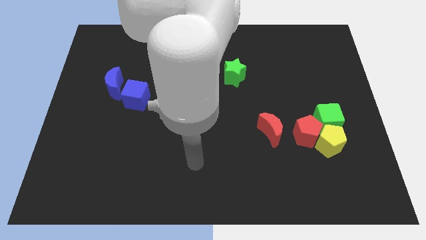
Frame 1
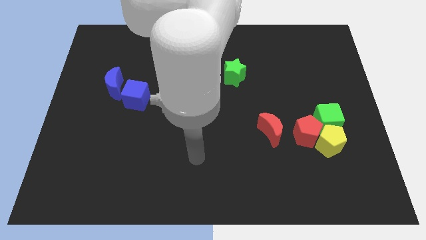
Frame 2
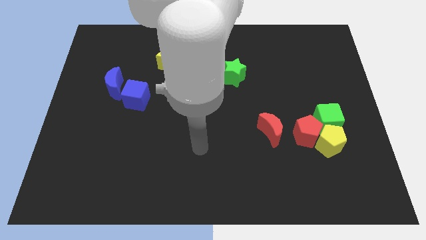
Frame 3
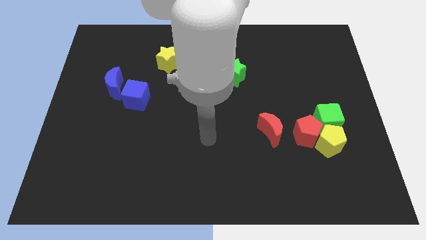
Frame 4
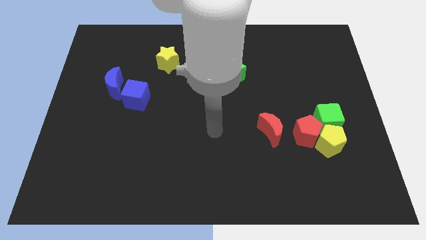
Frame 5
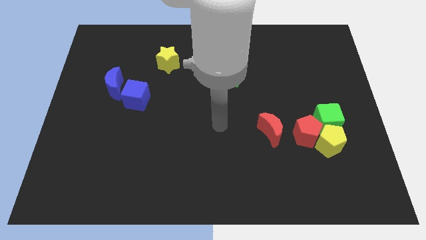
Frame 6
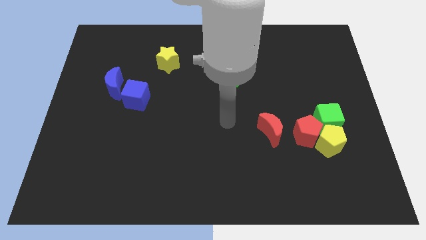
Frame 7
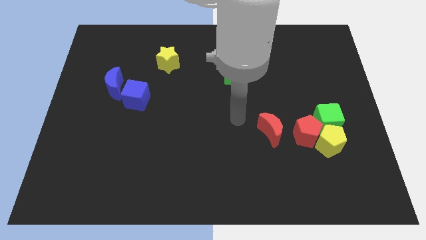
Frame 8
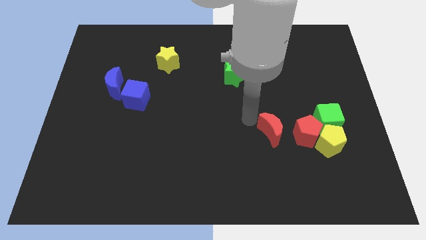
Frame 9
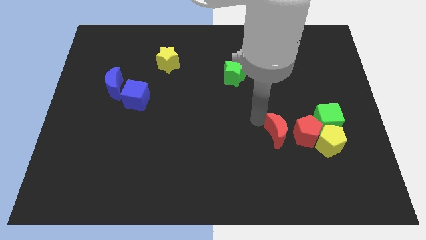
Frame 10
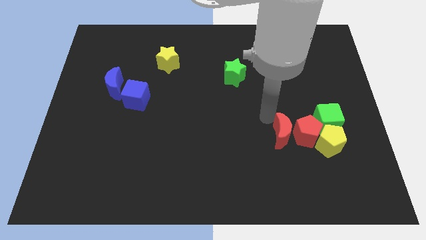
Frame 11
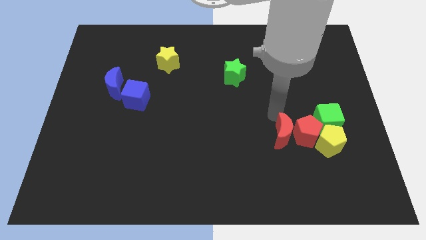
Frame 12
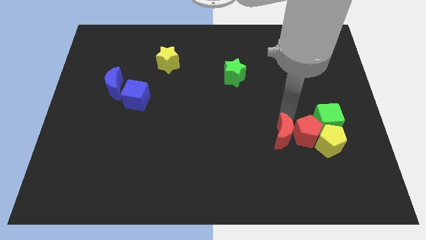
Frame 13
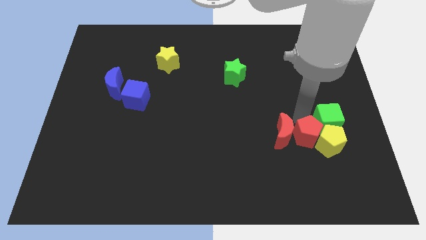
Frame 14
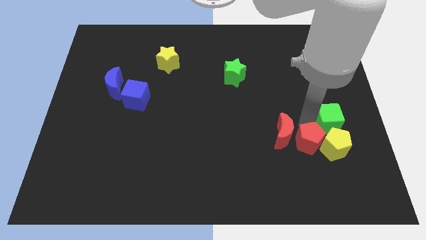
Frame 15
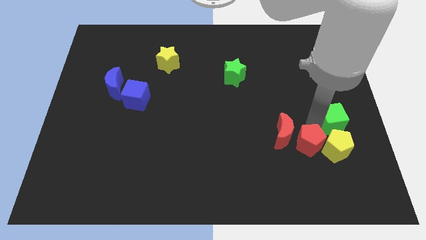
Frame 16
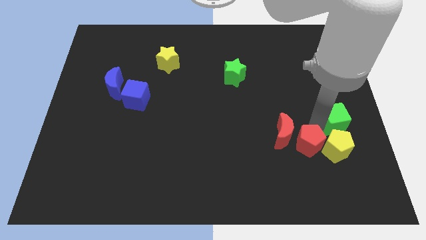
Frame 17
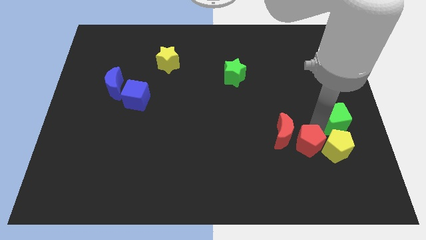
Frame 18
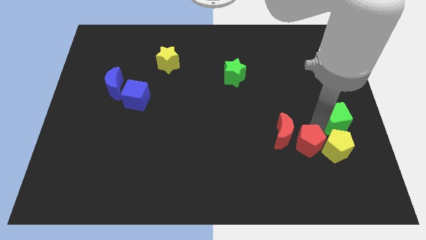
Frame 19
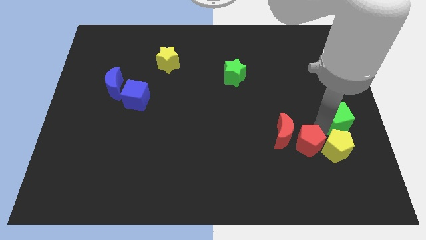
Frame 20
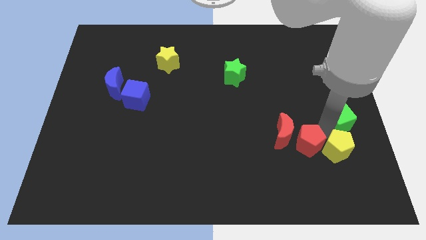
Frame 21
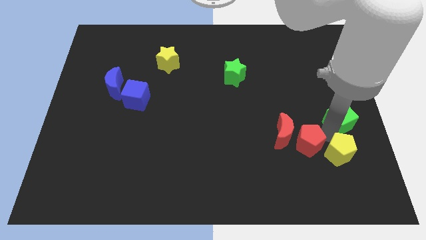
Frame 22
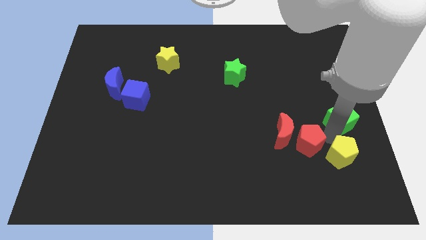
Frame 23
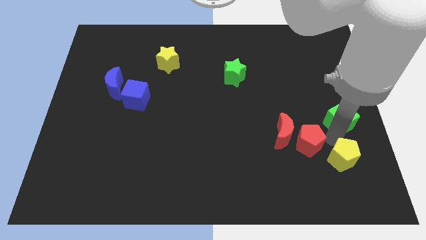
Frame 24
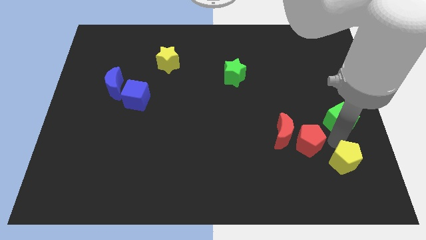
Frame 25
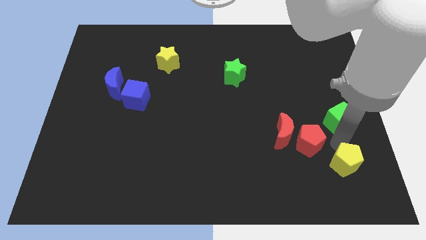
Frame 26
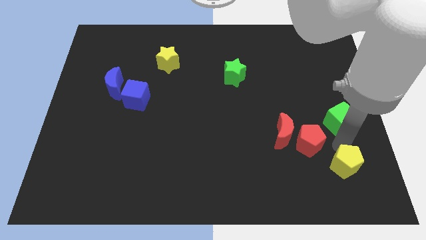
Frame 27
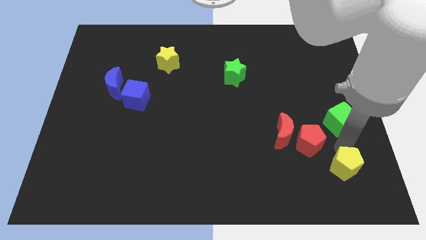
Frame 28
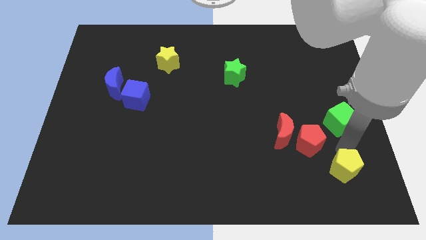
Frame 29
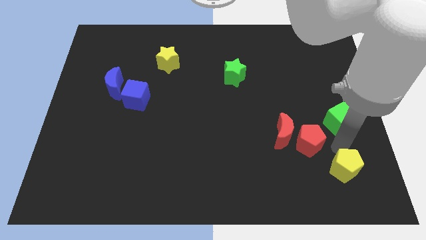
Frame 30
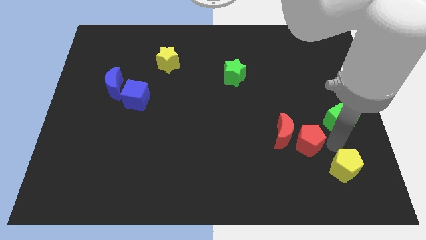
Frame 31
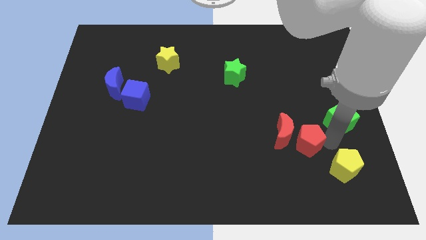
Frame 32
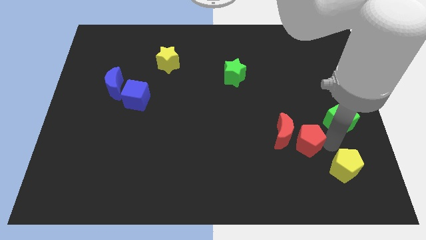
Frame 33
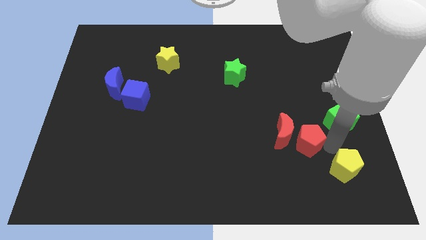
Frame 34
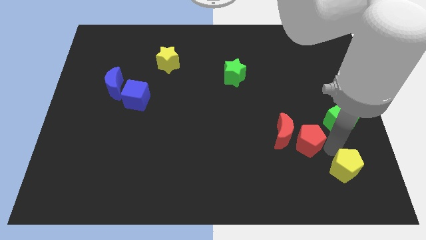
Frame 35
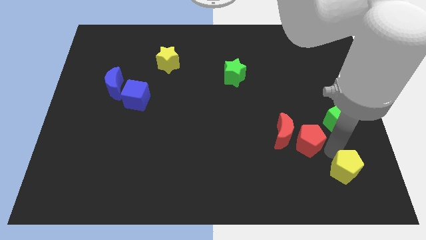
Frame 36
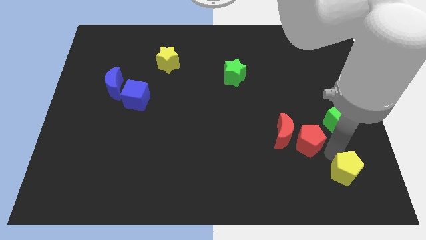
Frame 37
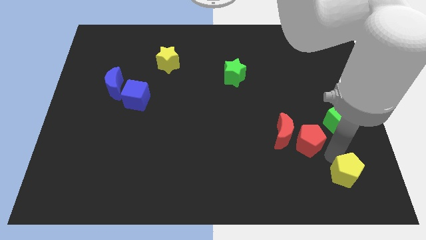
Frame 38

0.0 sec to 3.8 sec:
move the yellow pentagon away from the red pentagon and green cube

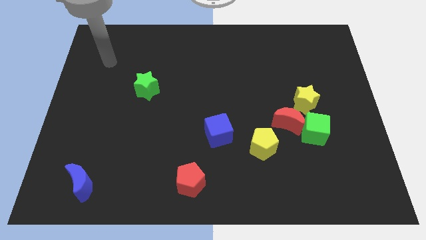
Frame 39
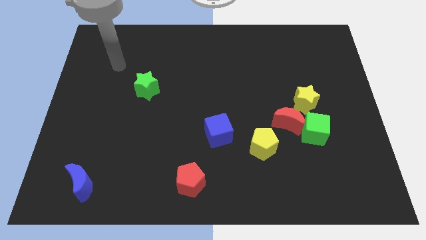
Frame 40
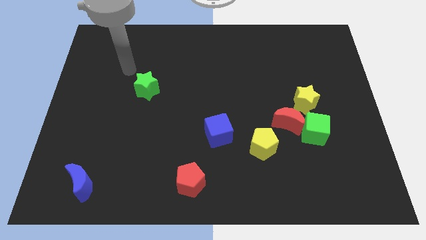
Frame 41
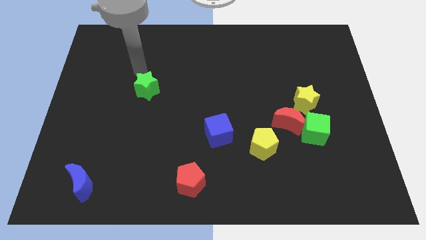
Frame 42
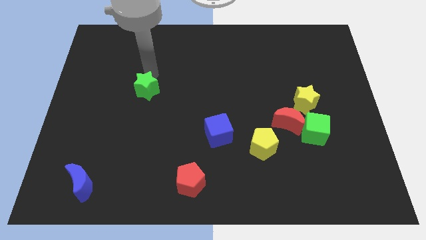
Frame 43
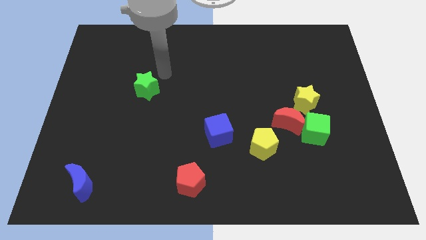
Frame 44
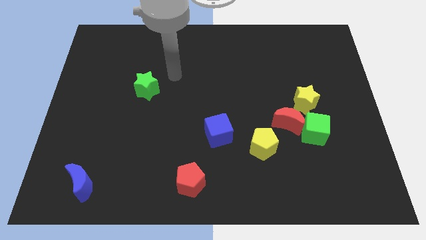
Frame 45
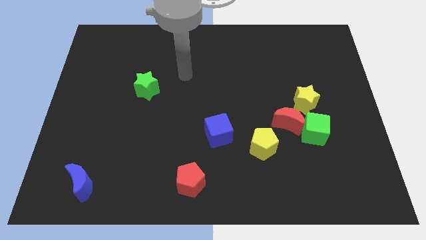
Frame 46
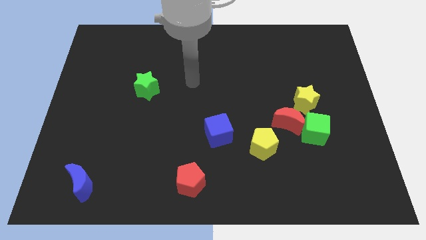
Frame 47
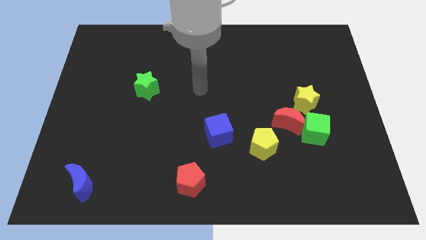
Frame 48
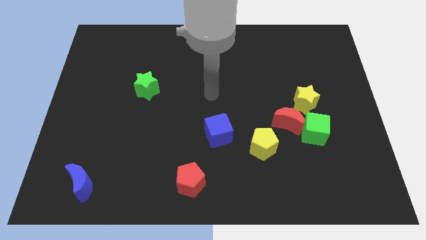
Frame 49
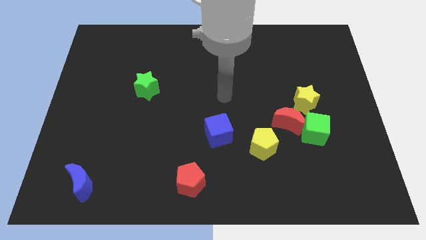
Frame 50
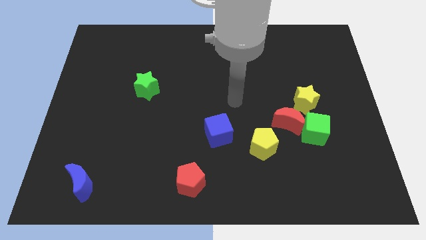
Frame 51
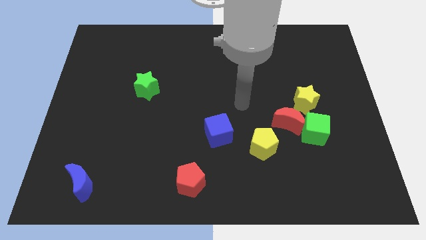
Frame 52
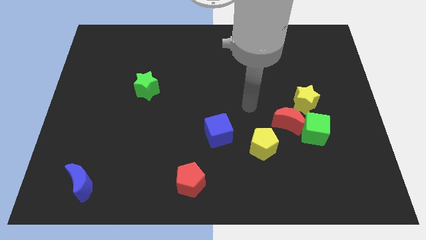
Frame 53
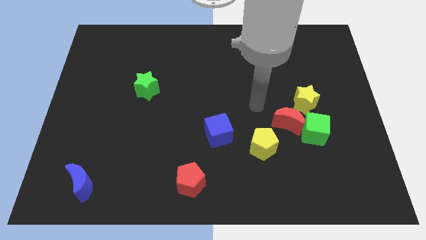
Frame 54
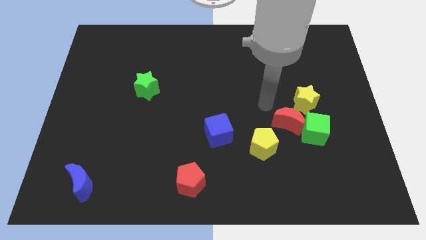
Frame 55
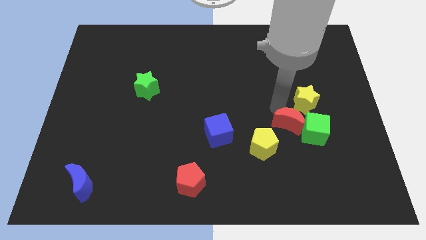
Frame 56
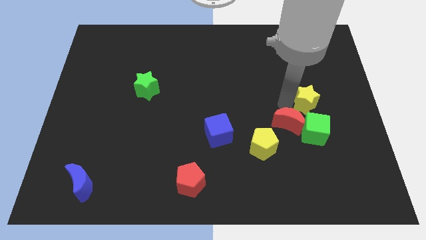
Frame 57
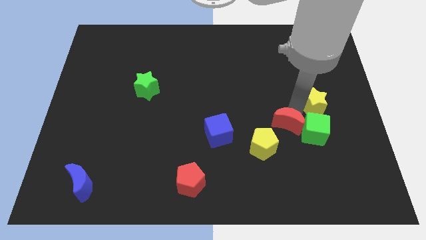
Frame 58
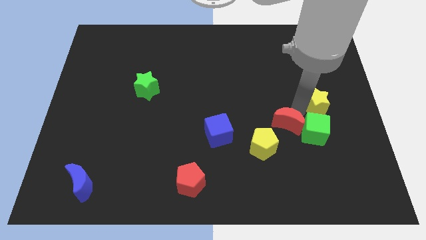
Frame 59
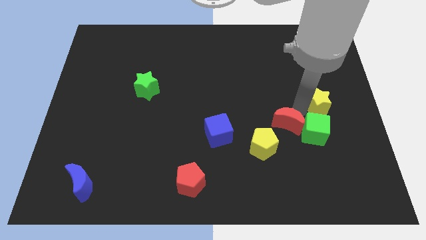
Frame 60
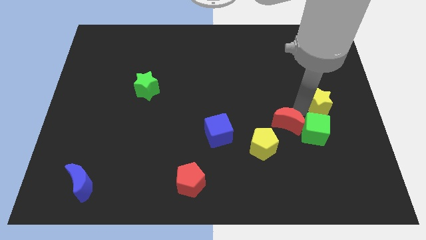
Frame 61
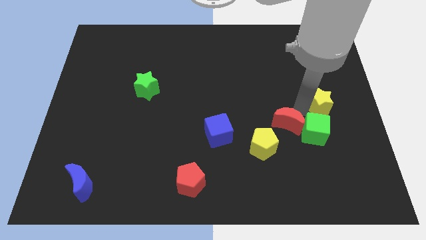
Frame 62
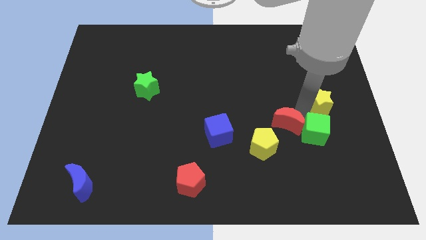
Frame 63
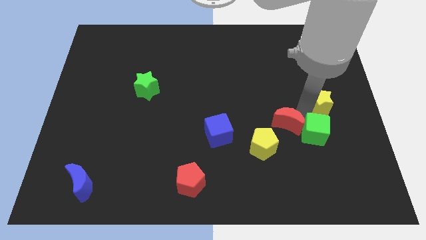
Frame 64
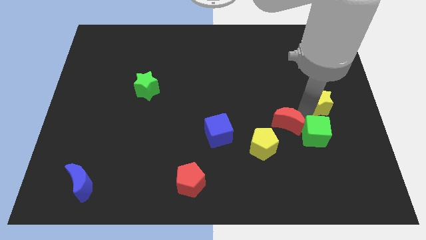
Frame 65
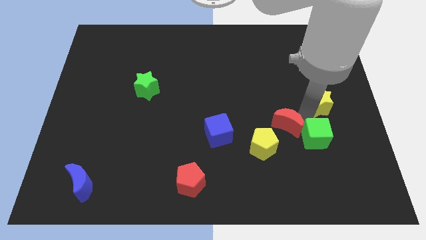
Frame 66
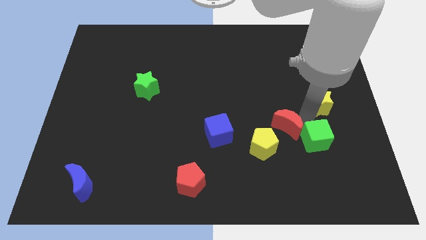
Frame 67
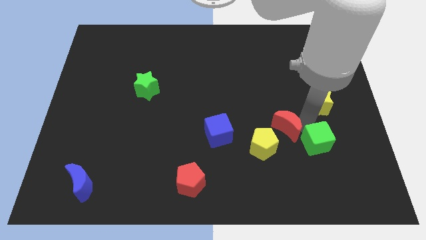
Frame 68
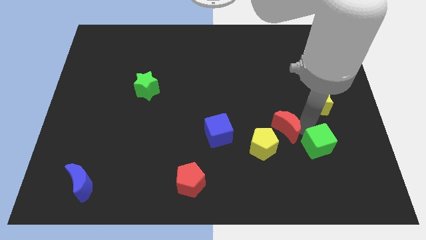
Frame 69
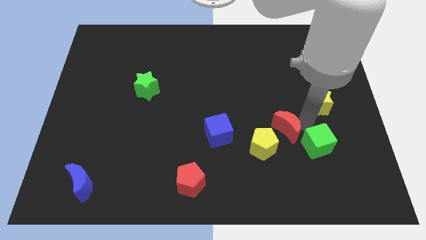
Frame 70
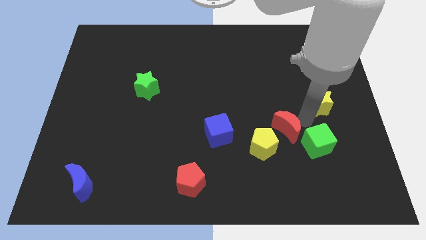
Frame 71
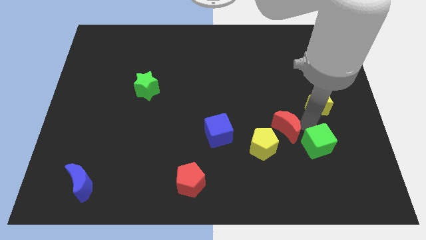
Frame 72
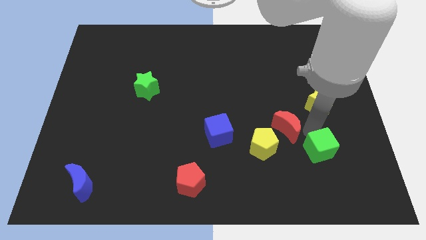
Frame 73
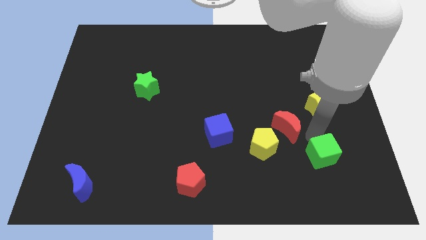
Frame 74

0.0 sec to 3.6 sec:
separate the green cube from the red moon and yellow star

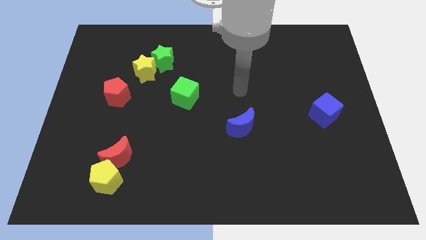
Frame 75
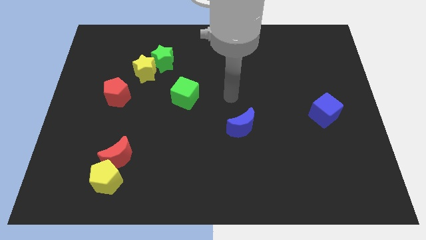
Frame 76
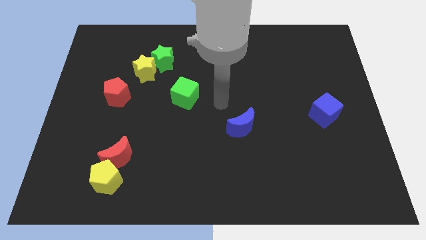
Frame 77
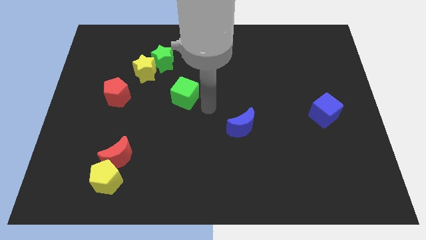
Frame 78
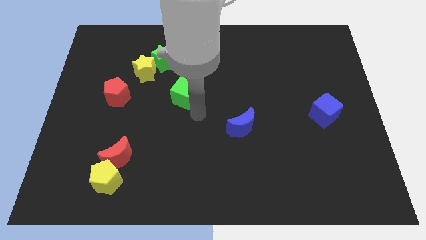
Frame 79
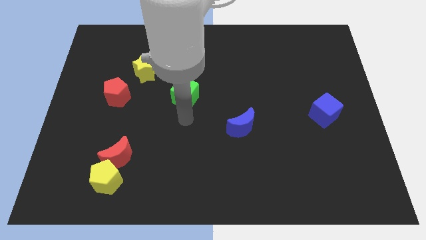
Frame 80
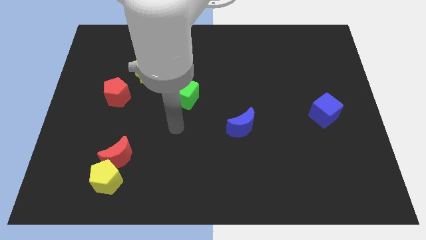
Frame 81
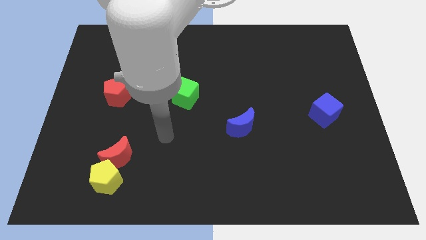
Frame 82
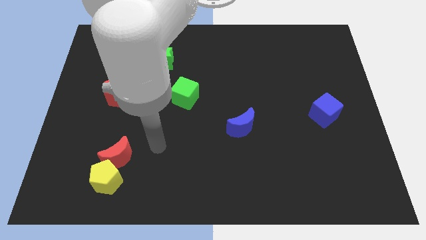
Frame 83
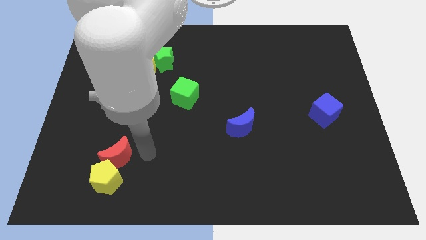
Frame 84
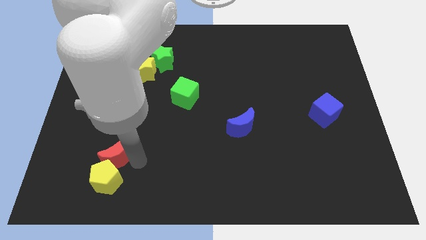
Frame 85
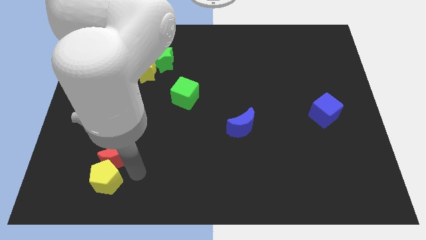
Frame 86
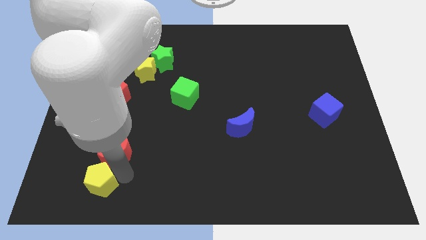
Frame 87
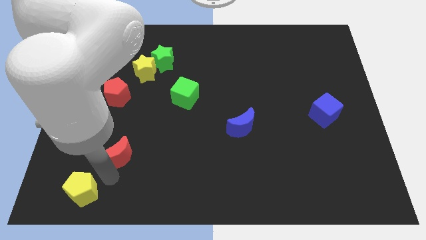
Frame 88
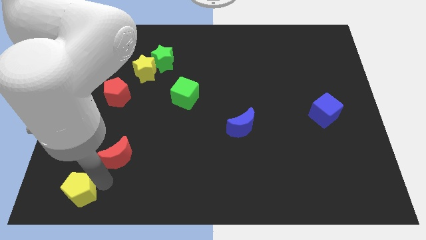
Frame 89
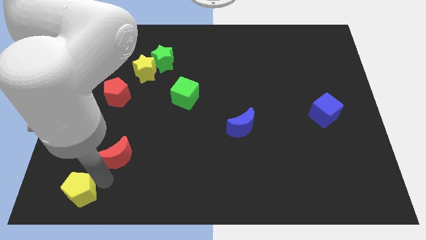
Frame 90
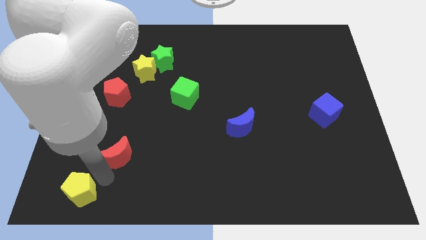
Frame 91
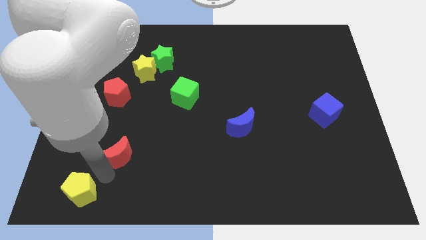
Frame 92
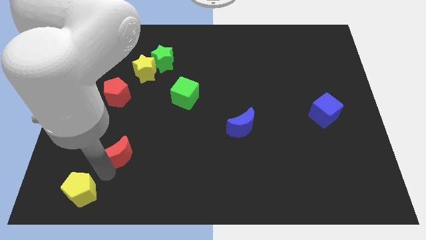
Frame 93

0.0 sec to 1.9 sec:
separate the red moon from the yellow pentagon
